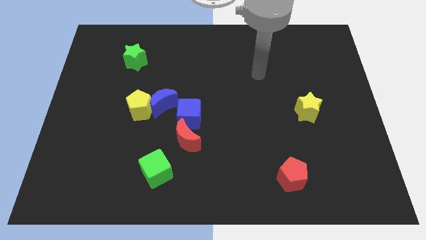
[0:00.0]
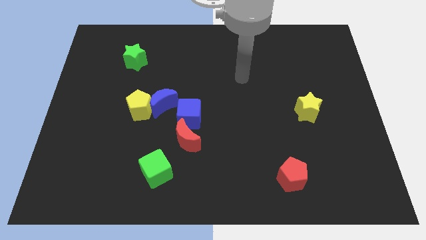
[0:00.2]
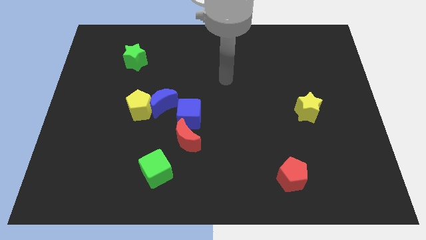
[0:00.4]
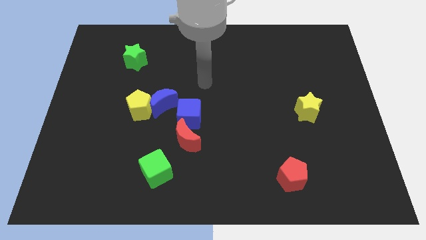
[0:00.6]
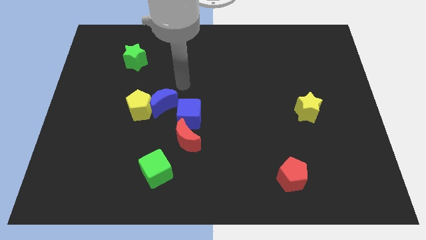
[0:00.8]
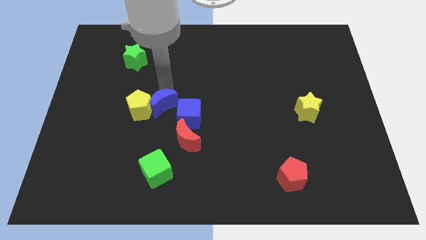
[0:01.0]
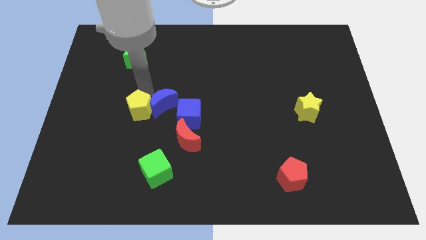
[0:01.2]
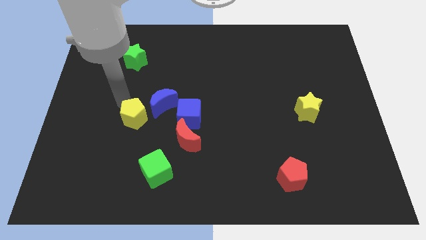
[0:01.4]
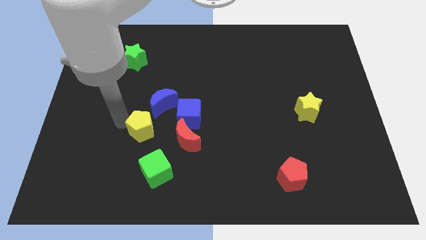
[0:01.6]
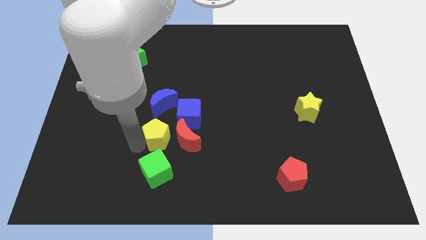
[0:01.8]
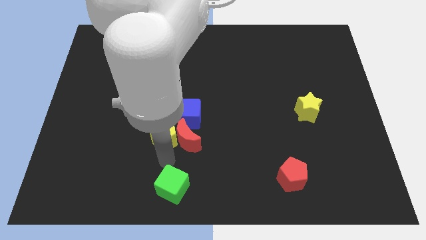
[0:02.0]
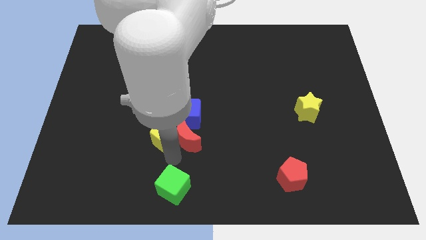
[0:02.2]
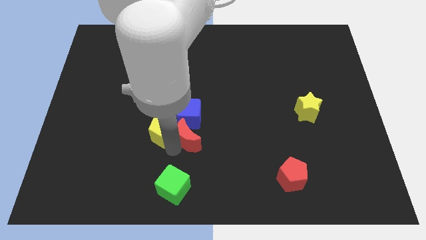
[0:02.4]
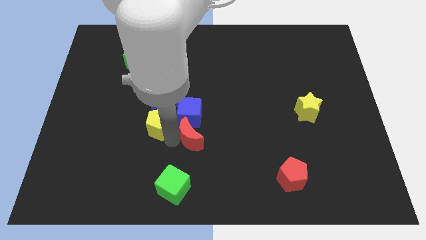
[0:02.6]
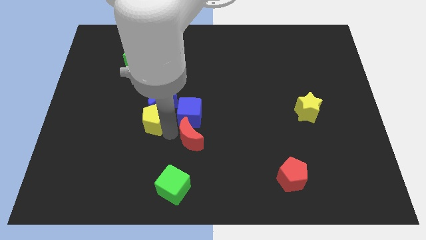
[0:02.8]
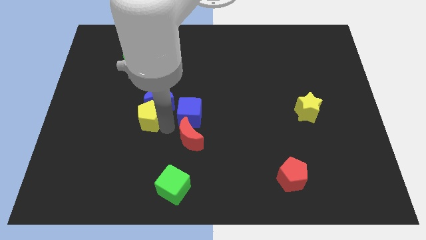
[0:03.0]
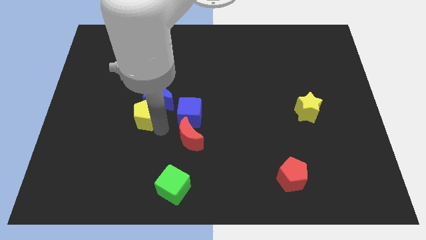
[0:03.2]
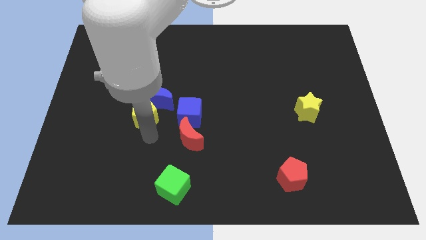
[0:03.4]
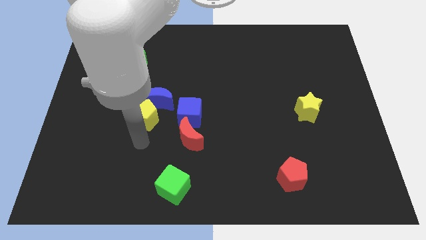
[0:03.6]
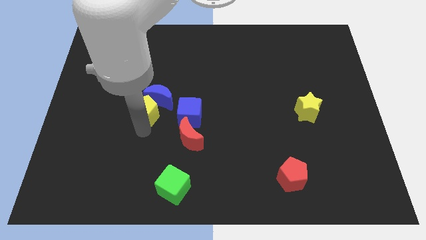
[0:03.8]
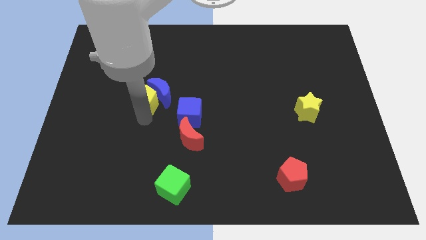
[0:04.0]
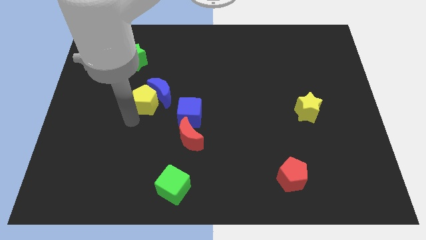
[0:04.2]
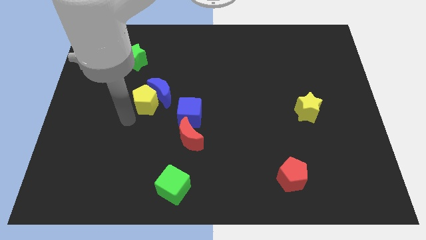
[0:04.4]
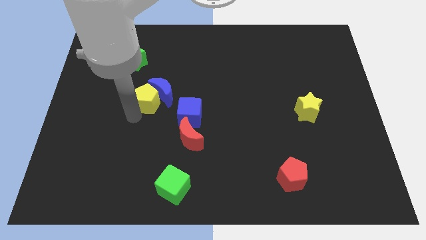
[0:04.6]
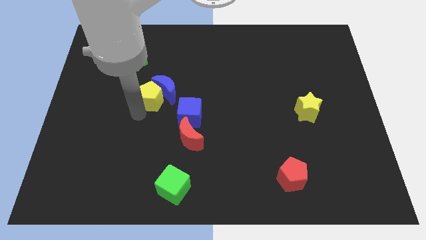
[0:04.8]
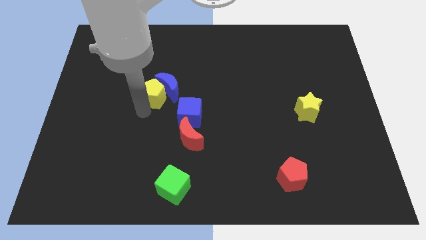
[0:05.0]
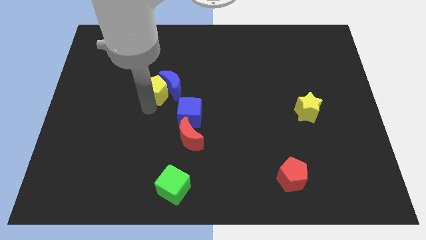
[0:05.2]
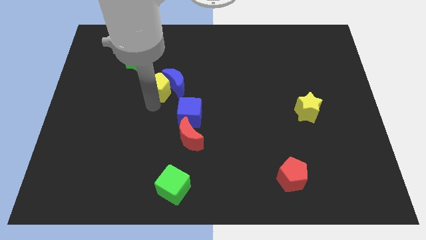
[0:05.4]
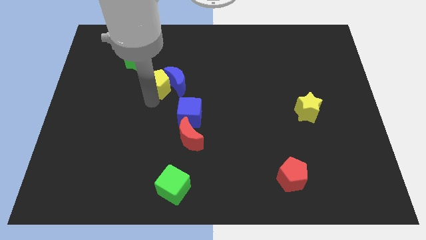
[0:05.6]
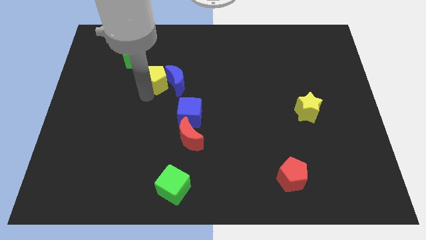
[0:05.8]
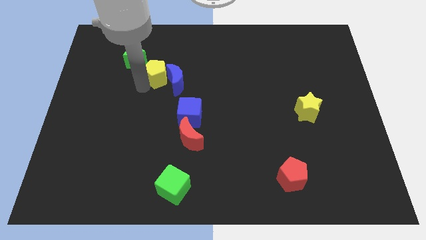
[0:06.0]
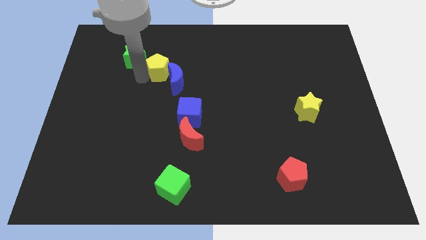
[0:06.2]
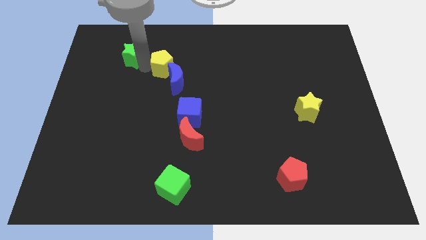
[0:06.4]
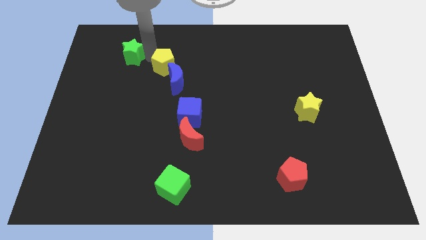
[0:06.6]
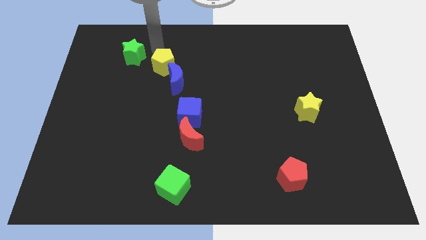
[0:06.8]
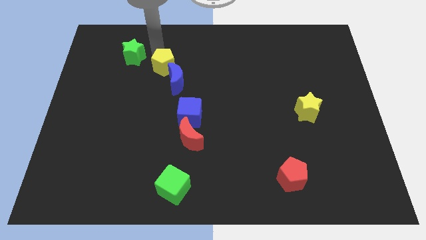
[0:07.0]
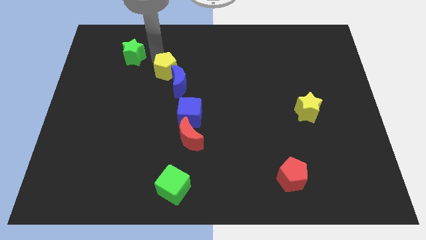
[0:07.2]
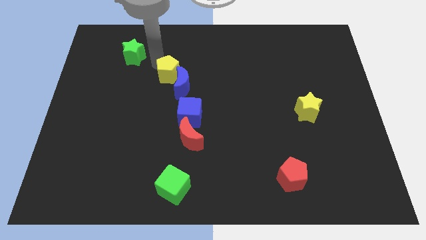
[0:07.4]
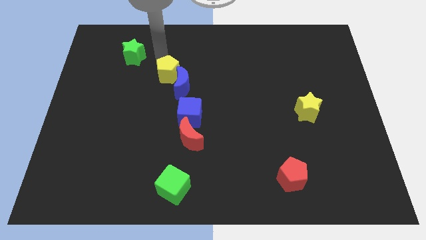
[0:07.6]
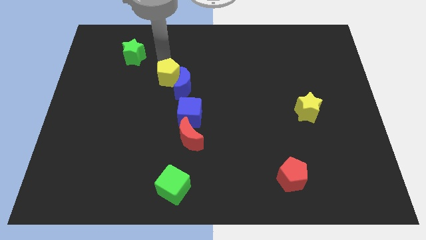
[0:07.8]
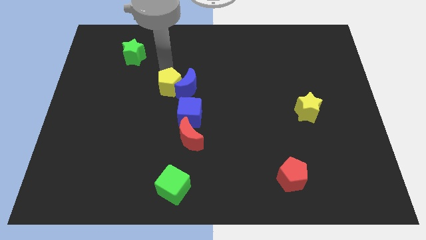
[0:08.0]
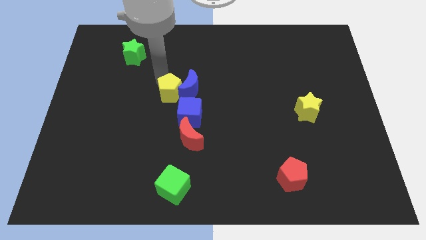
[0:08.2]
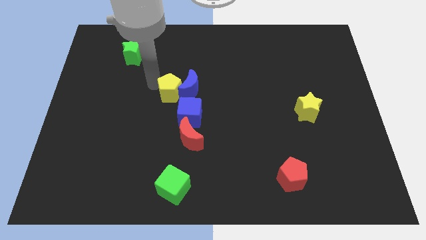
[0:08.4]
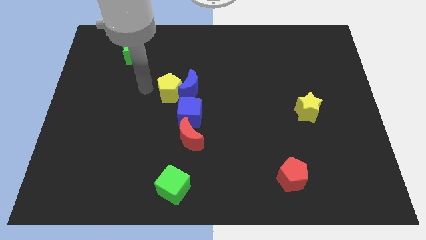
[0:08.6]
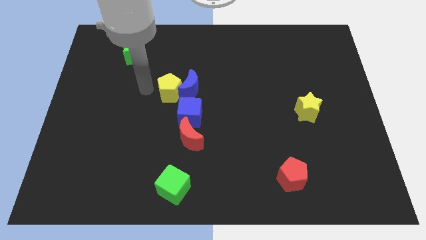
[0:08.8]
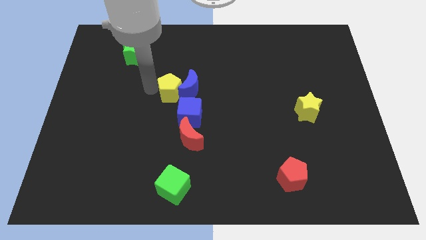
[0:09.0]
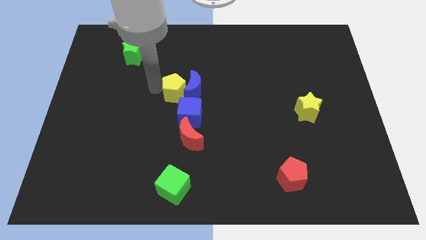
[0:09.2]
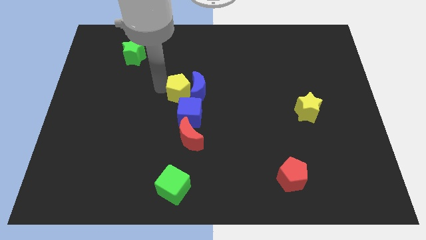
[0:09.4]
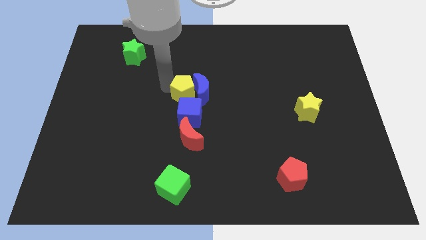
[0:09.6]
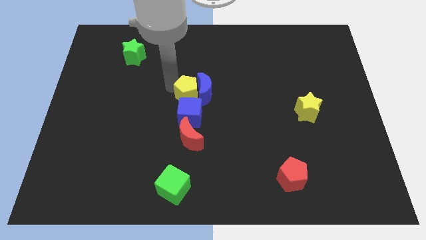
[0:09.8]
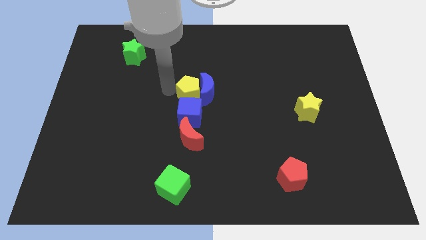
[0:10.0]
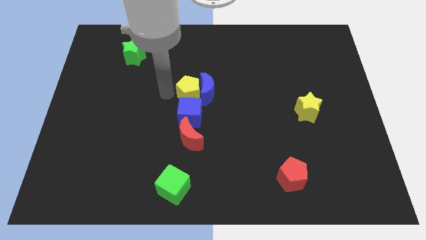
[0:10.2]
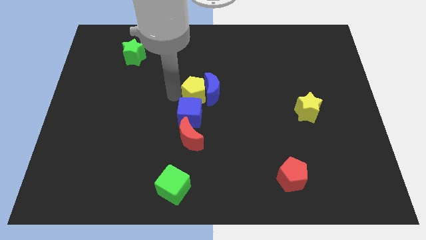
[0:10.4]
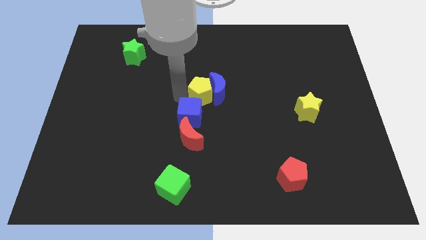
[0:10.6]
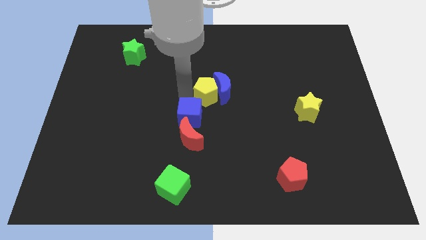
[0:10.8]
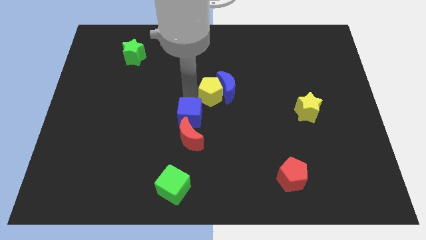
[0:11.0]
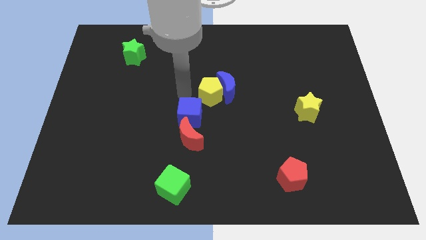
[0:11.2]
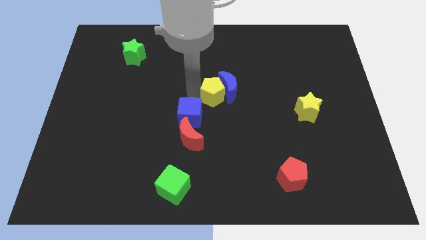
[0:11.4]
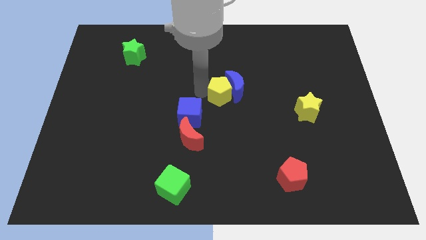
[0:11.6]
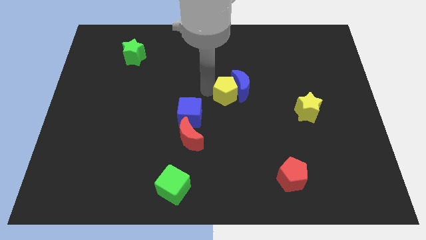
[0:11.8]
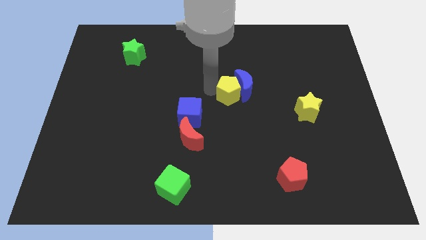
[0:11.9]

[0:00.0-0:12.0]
push the yellow pentagon to the right

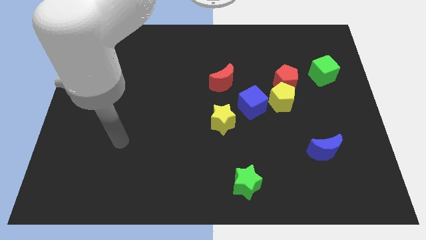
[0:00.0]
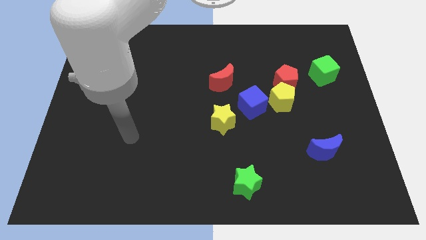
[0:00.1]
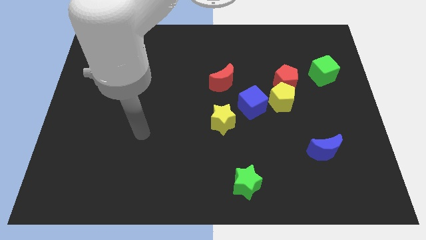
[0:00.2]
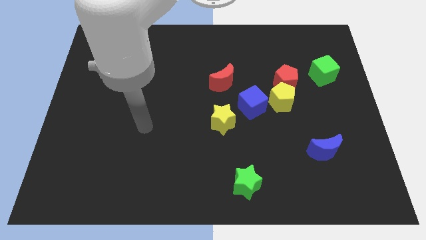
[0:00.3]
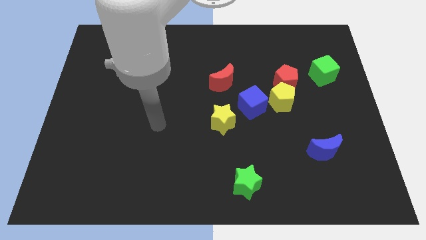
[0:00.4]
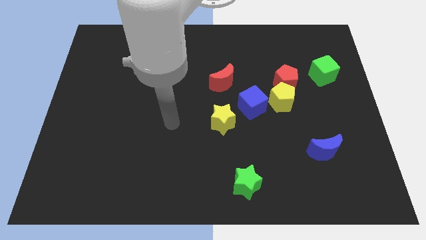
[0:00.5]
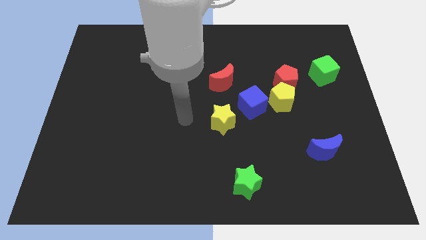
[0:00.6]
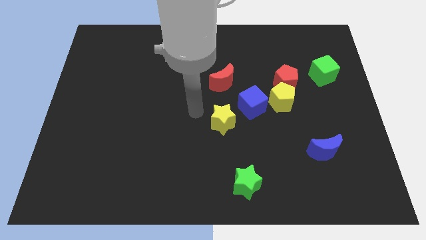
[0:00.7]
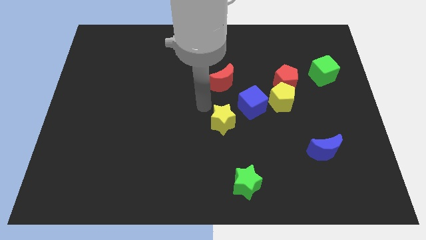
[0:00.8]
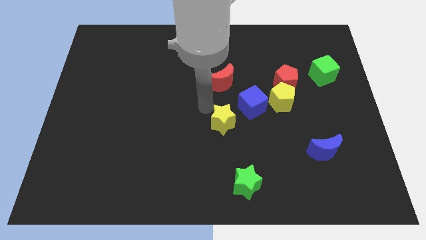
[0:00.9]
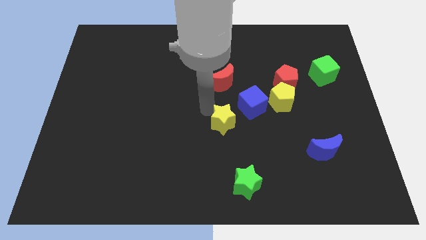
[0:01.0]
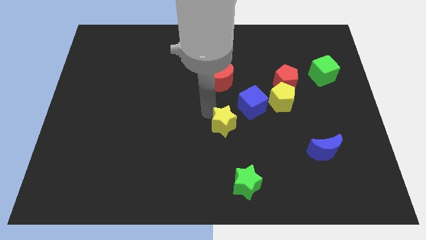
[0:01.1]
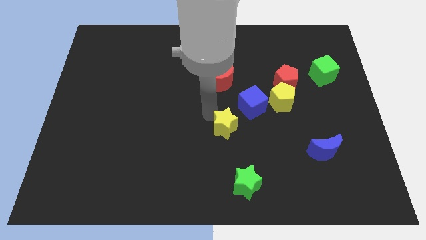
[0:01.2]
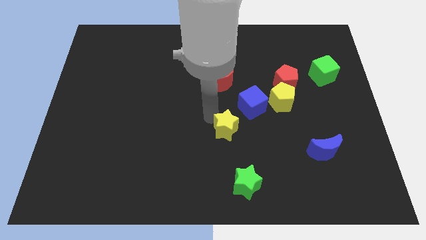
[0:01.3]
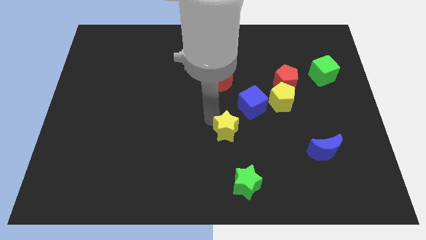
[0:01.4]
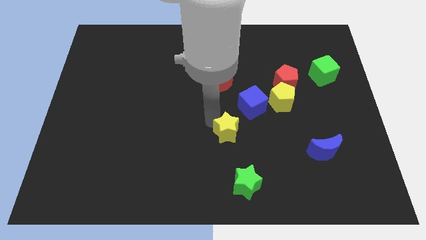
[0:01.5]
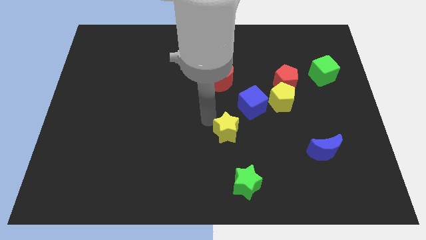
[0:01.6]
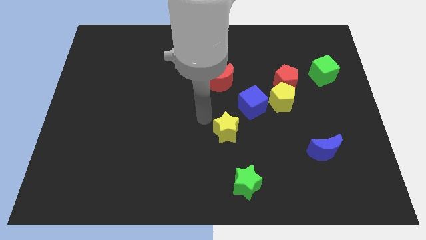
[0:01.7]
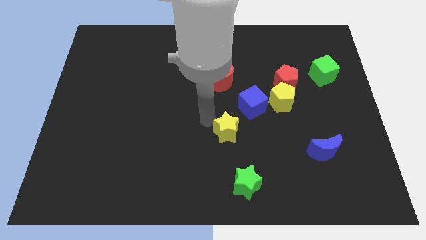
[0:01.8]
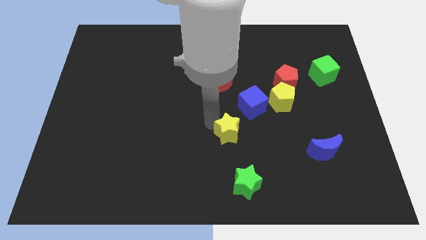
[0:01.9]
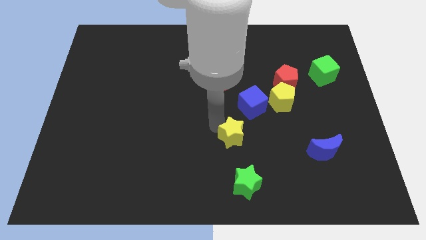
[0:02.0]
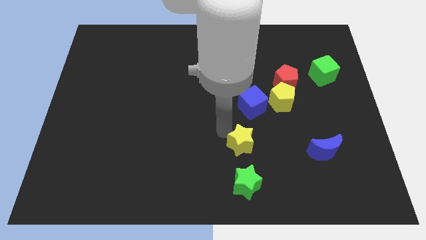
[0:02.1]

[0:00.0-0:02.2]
slightly slide the yellow star diagonally down and to the right
